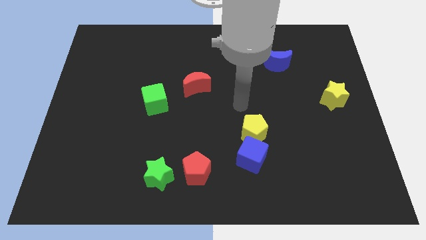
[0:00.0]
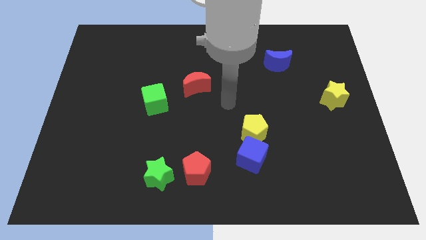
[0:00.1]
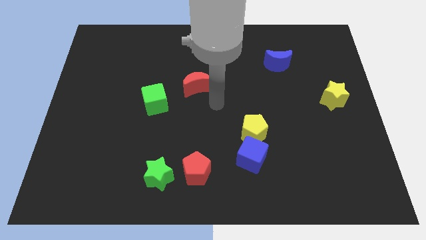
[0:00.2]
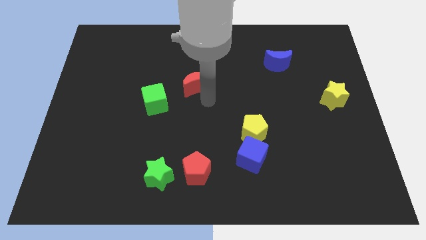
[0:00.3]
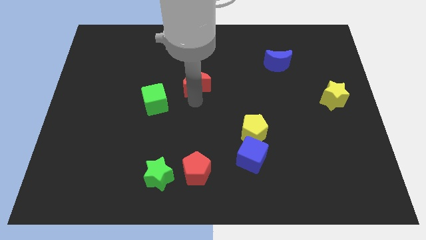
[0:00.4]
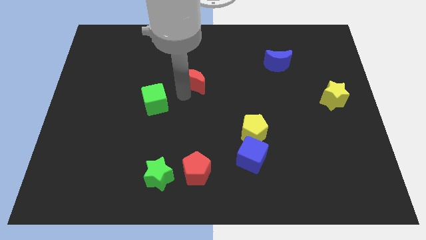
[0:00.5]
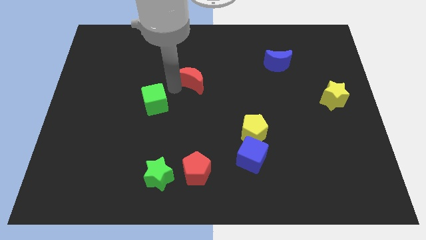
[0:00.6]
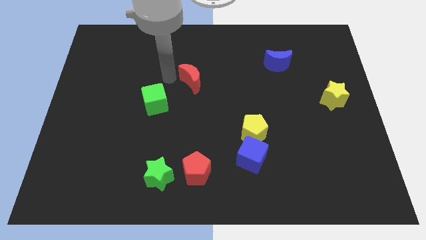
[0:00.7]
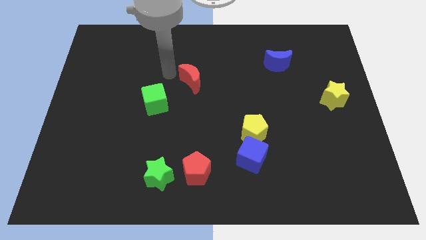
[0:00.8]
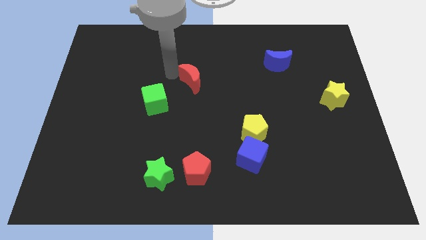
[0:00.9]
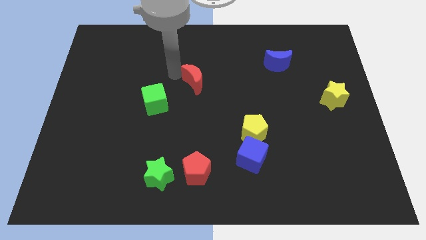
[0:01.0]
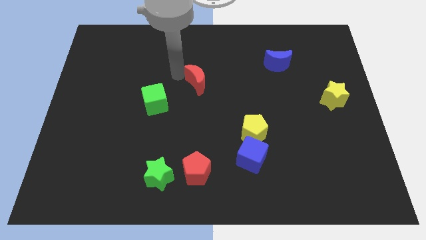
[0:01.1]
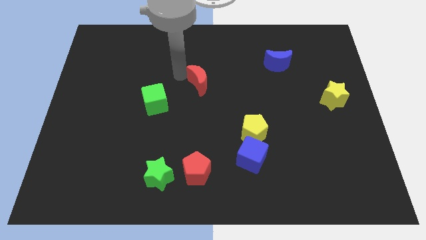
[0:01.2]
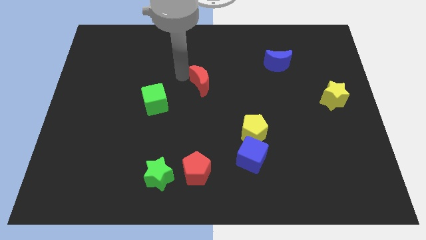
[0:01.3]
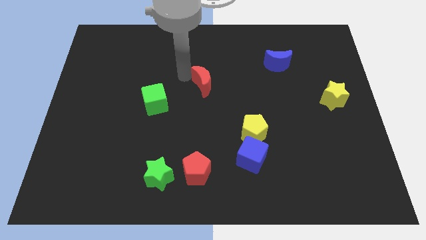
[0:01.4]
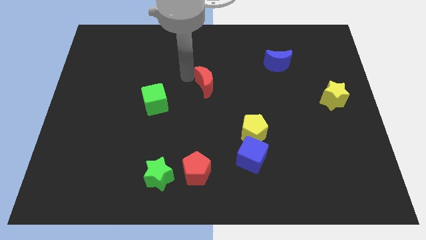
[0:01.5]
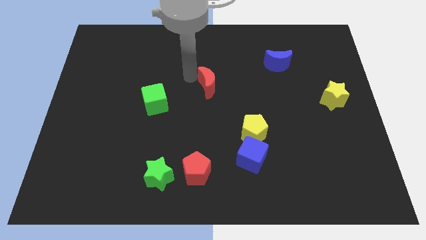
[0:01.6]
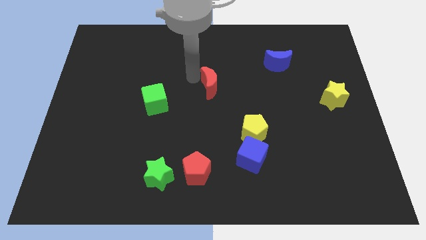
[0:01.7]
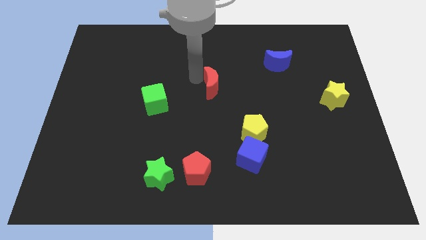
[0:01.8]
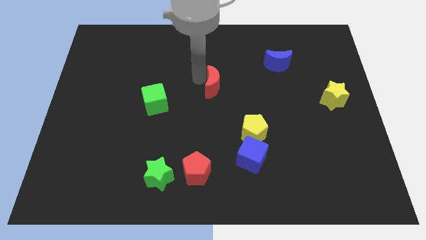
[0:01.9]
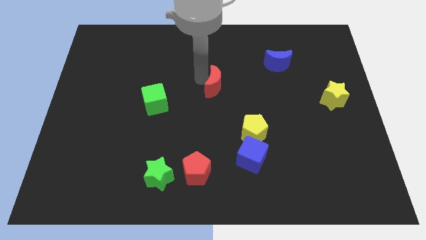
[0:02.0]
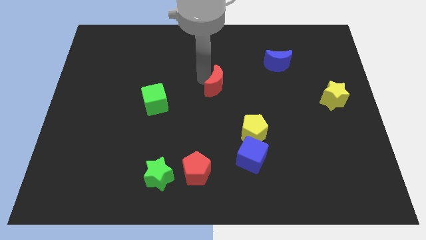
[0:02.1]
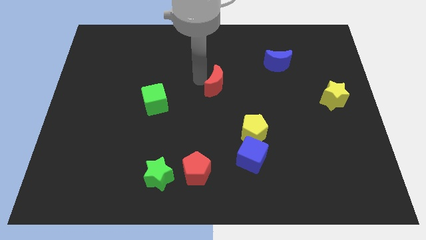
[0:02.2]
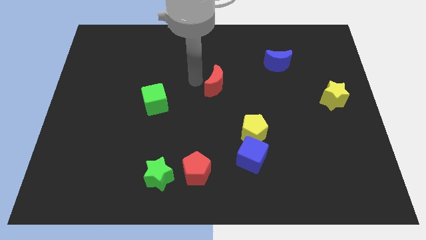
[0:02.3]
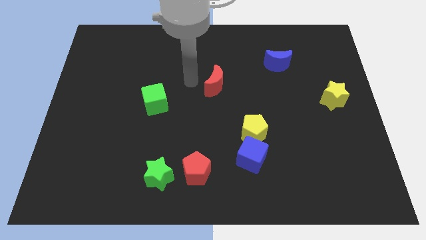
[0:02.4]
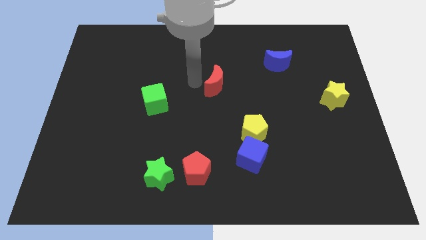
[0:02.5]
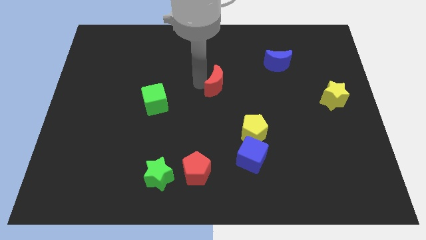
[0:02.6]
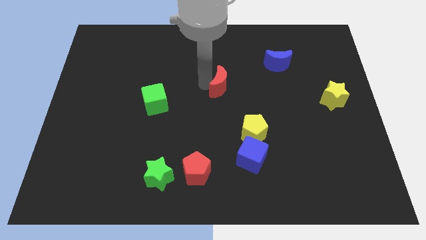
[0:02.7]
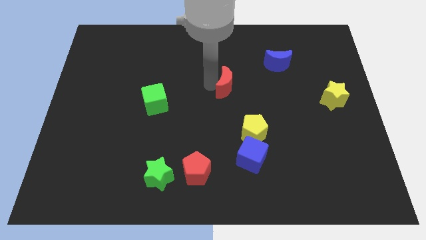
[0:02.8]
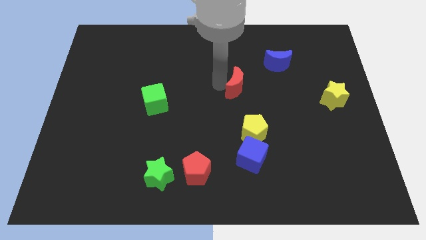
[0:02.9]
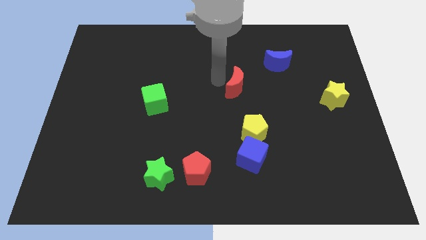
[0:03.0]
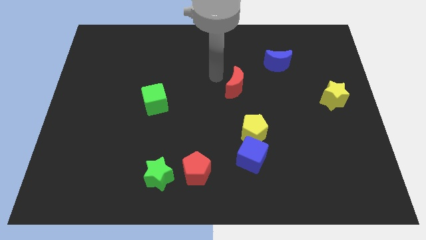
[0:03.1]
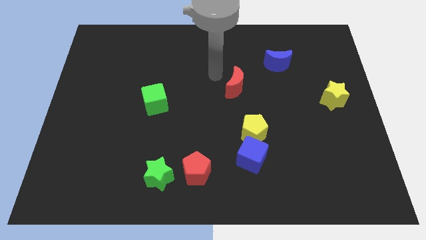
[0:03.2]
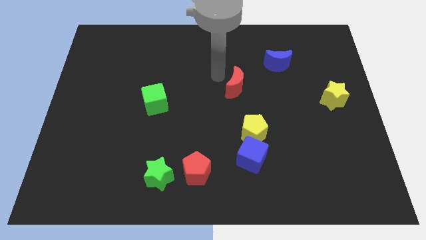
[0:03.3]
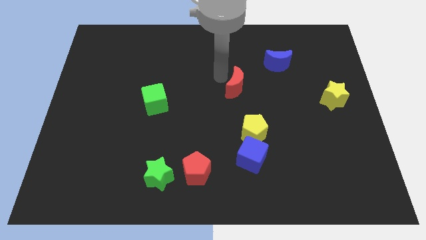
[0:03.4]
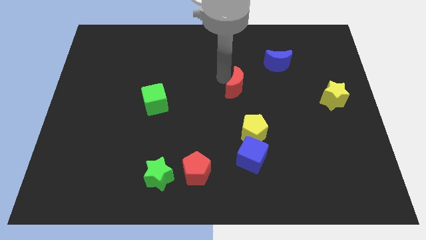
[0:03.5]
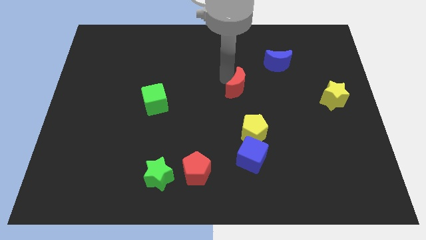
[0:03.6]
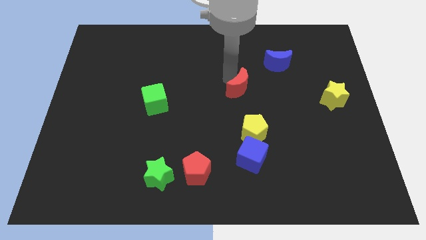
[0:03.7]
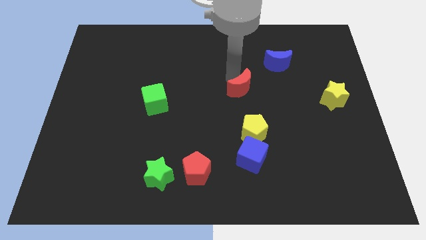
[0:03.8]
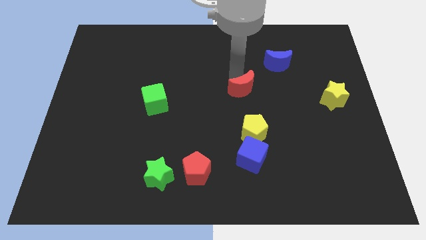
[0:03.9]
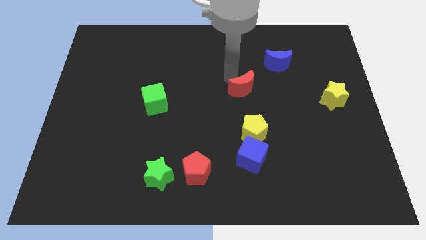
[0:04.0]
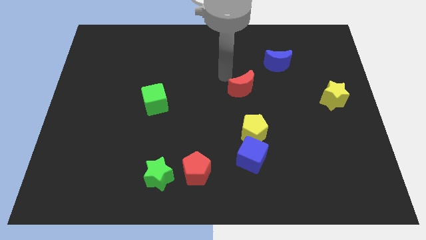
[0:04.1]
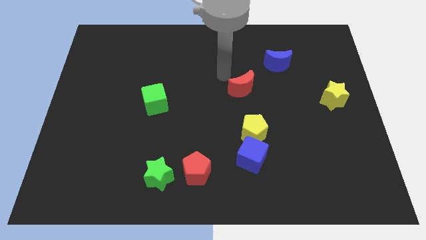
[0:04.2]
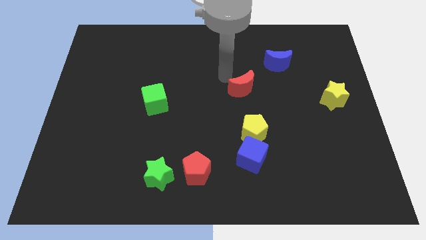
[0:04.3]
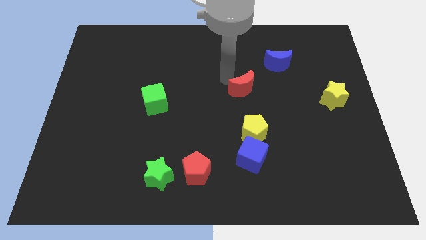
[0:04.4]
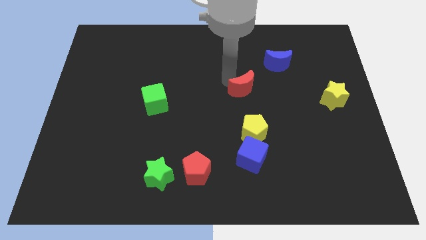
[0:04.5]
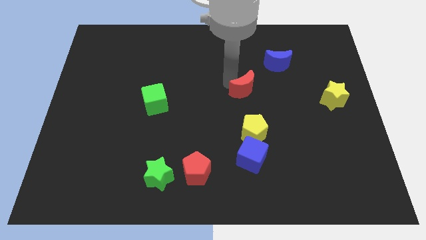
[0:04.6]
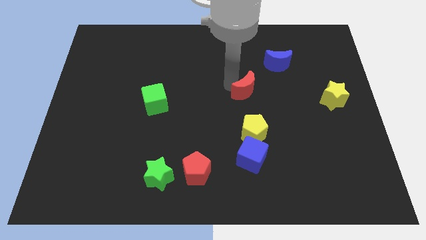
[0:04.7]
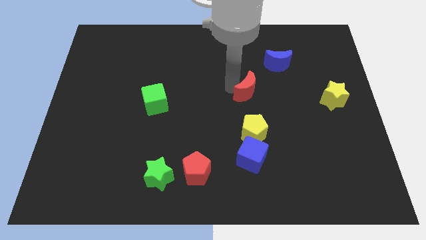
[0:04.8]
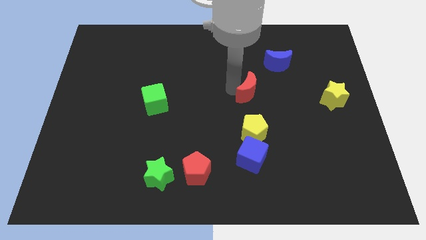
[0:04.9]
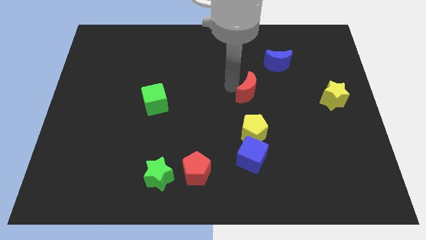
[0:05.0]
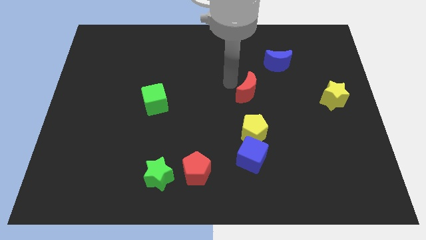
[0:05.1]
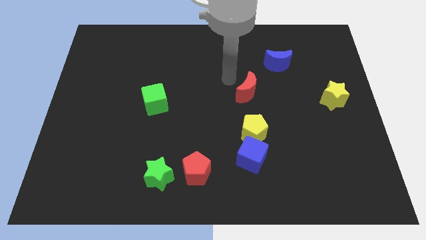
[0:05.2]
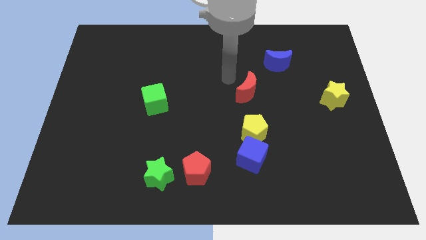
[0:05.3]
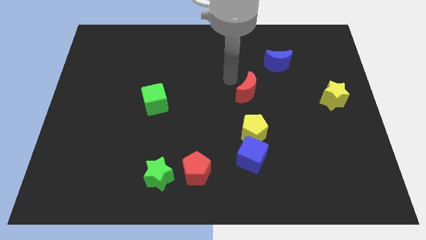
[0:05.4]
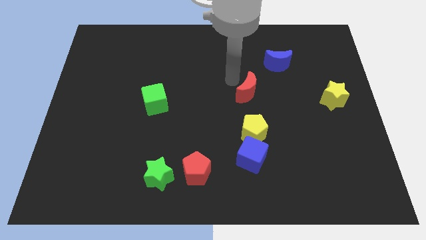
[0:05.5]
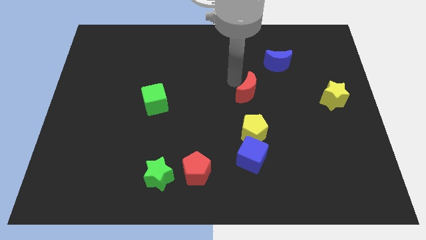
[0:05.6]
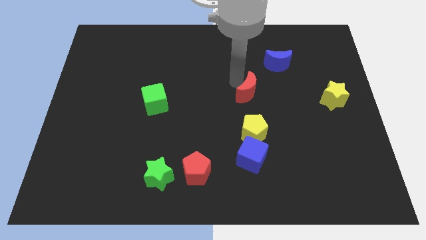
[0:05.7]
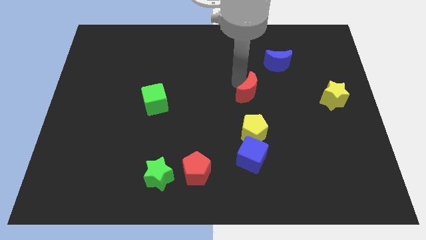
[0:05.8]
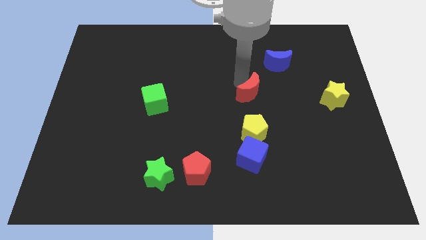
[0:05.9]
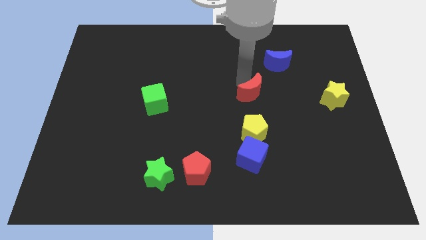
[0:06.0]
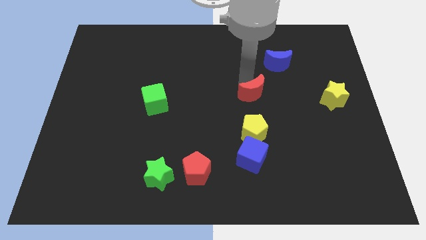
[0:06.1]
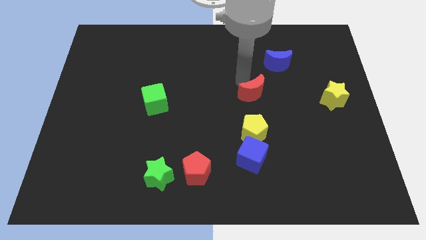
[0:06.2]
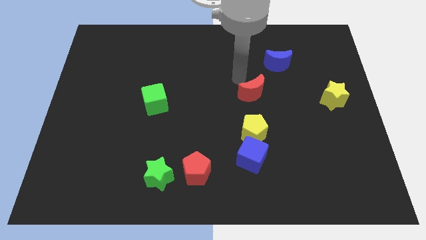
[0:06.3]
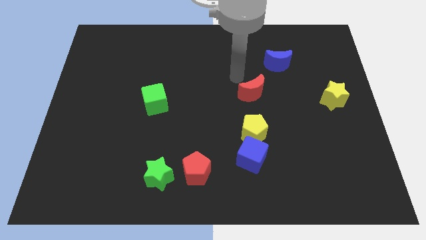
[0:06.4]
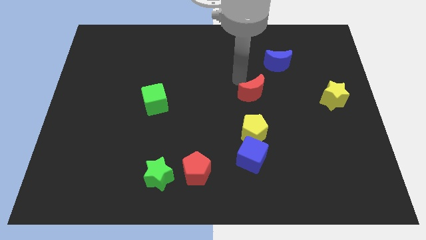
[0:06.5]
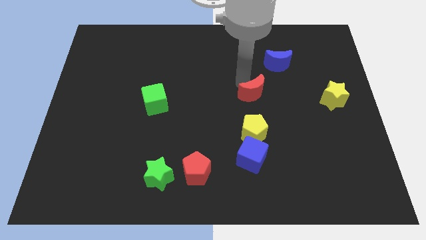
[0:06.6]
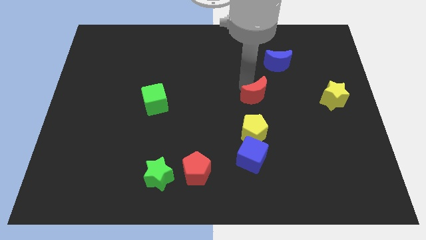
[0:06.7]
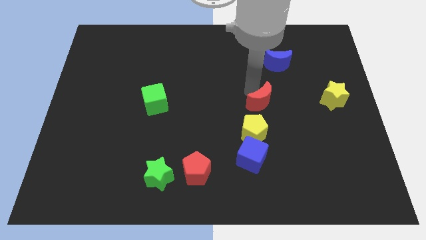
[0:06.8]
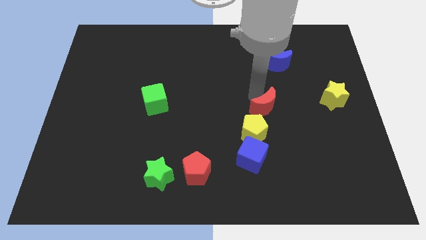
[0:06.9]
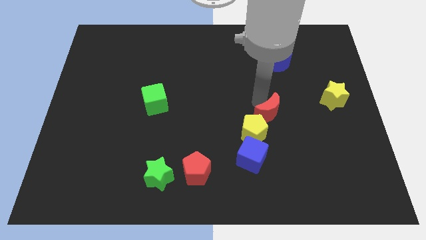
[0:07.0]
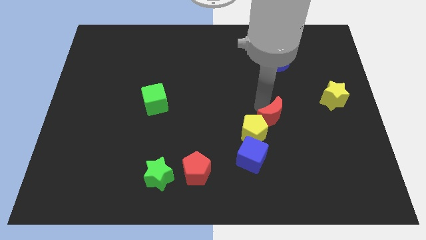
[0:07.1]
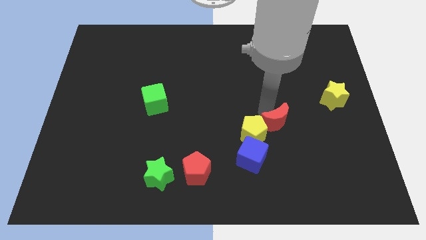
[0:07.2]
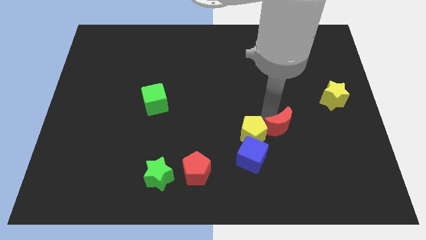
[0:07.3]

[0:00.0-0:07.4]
move the red moon downwards and to the right

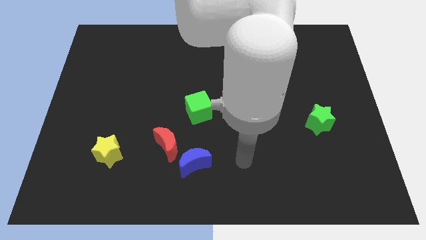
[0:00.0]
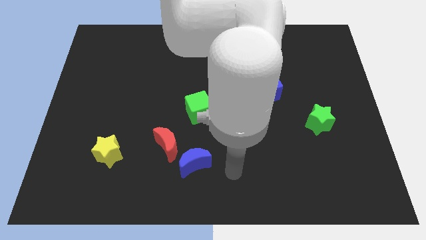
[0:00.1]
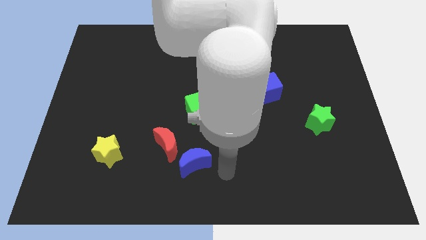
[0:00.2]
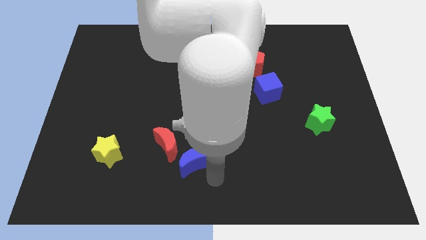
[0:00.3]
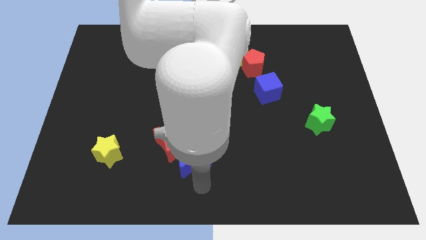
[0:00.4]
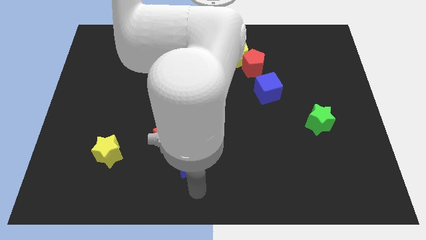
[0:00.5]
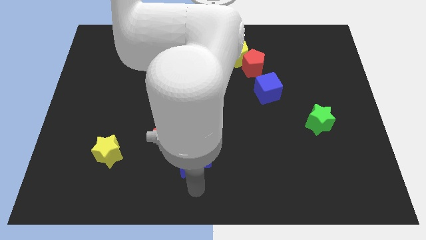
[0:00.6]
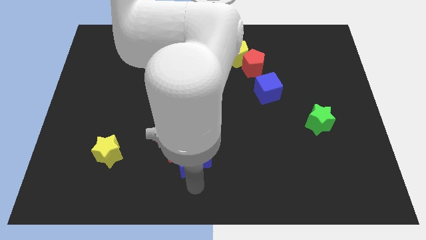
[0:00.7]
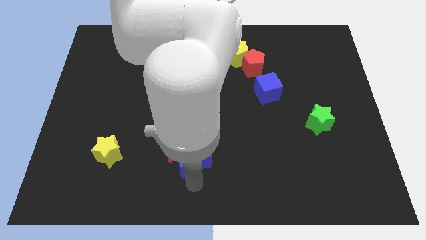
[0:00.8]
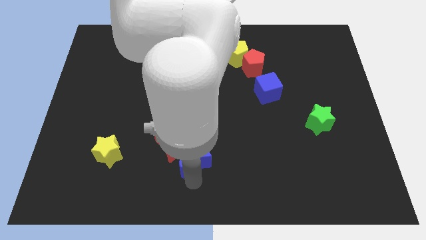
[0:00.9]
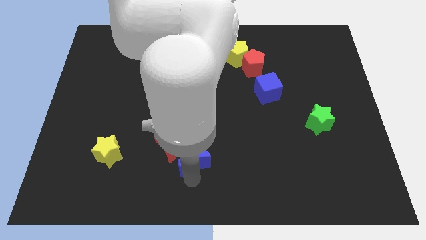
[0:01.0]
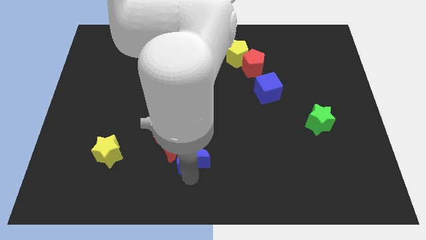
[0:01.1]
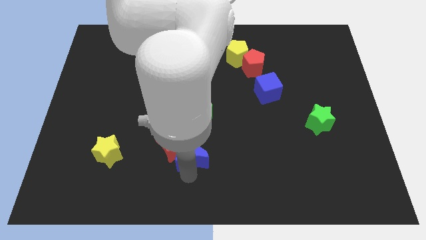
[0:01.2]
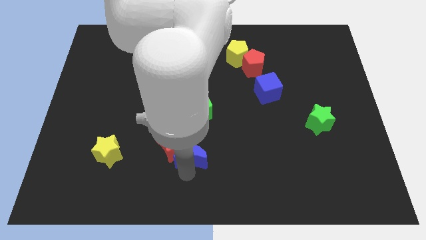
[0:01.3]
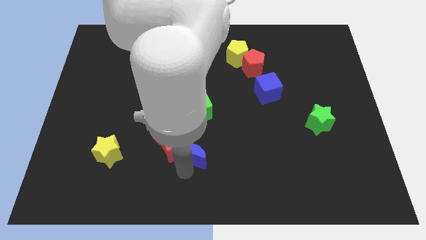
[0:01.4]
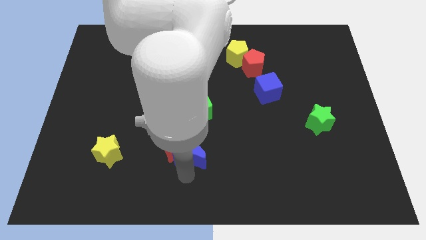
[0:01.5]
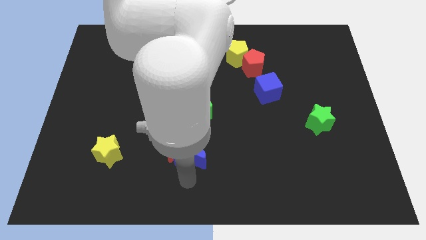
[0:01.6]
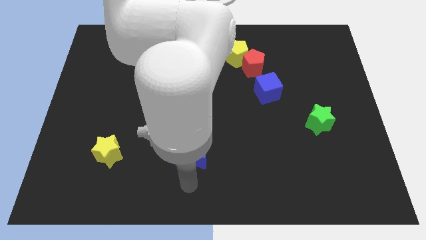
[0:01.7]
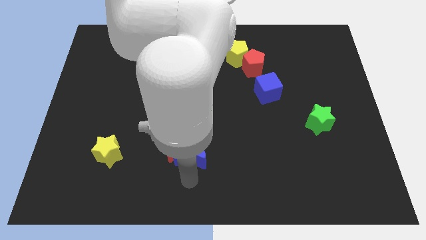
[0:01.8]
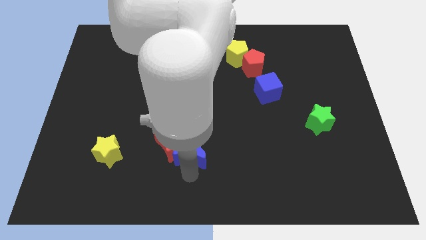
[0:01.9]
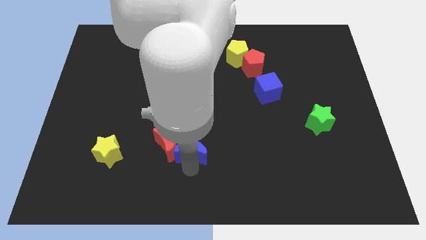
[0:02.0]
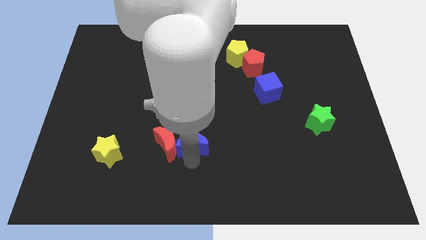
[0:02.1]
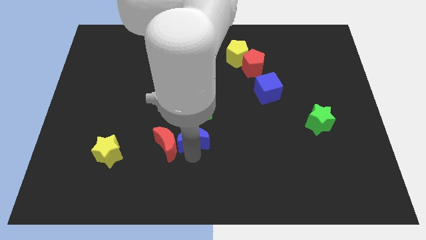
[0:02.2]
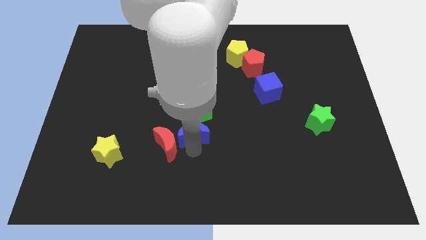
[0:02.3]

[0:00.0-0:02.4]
slightly push the blue moon up
